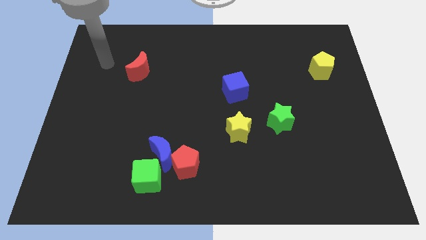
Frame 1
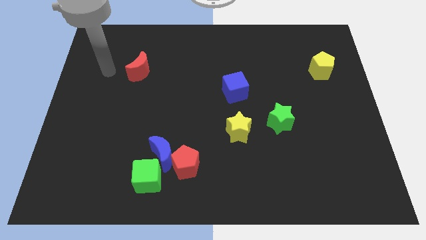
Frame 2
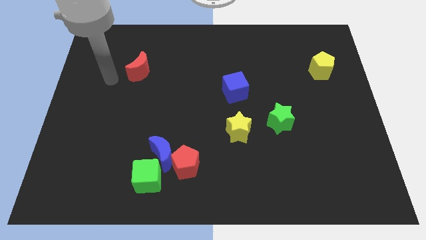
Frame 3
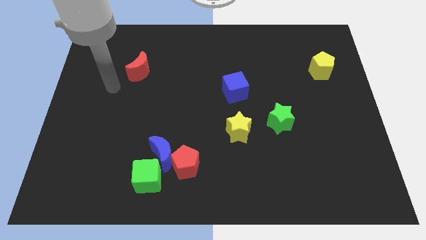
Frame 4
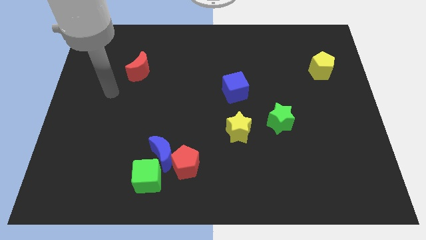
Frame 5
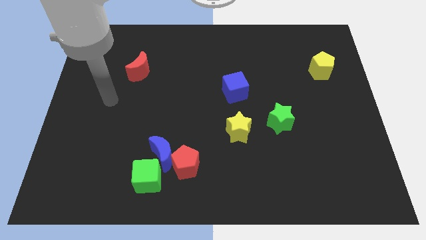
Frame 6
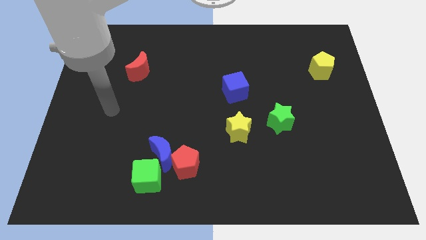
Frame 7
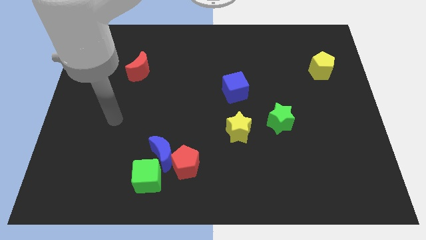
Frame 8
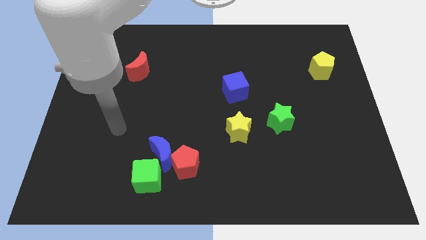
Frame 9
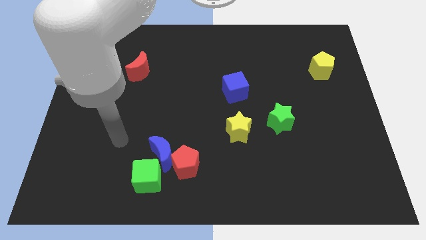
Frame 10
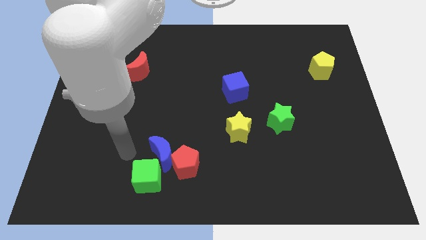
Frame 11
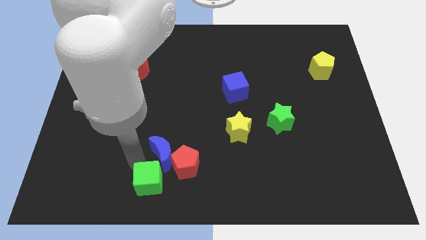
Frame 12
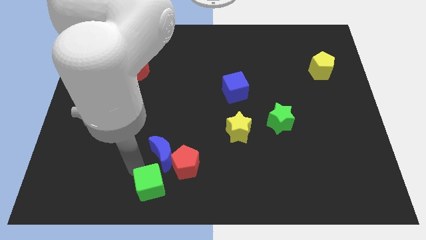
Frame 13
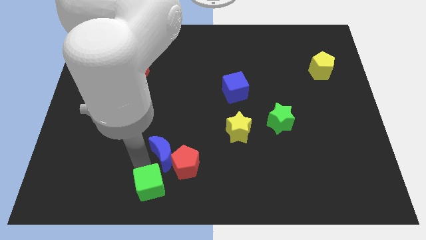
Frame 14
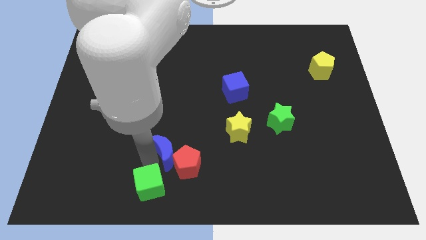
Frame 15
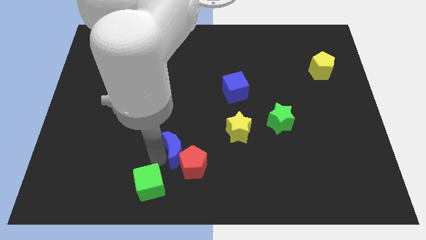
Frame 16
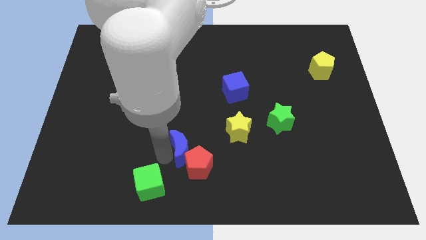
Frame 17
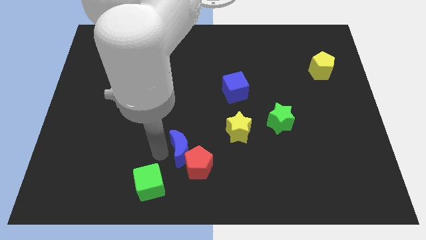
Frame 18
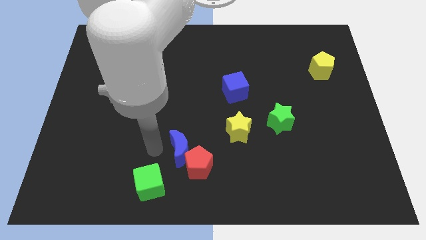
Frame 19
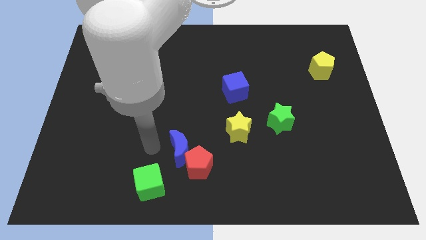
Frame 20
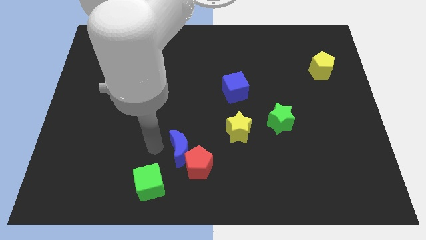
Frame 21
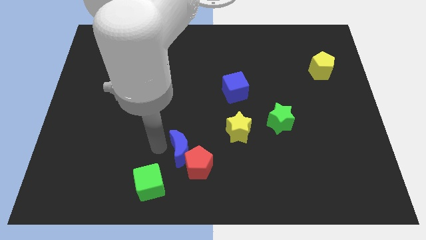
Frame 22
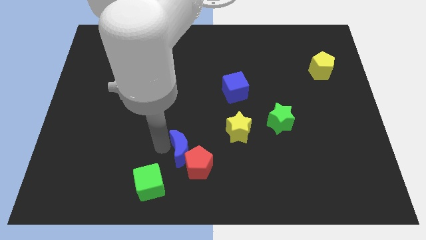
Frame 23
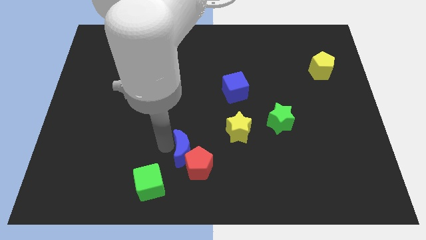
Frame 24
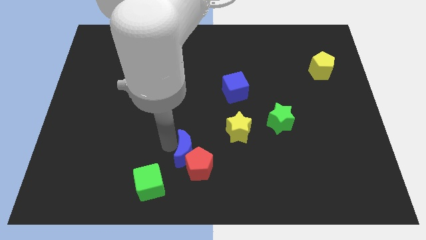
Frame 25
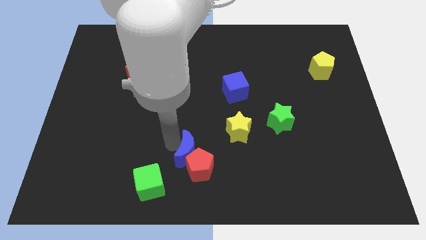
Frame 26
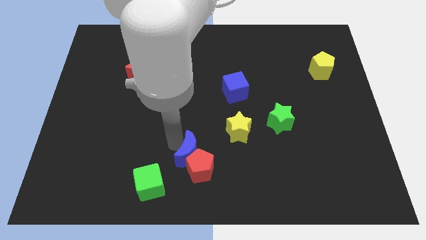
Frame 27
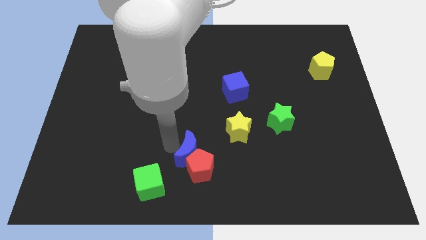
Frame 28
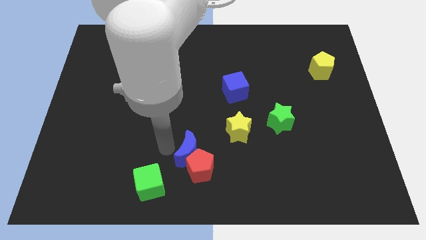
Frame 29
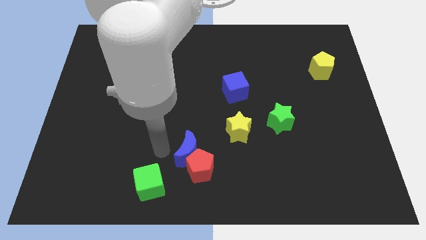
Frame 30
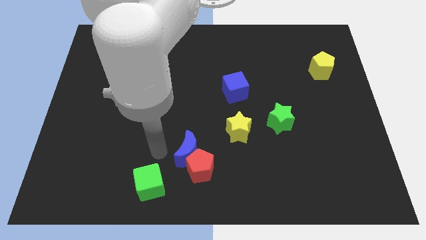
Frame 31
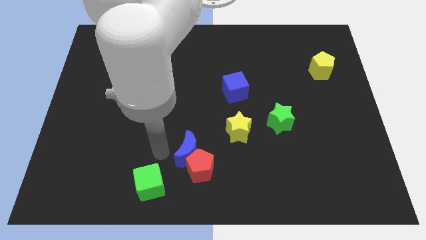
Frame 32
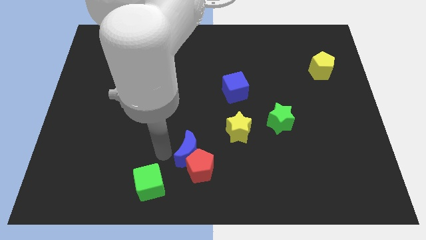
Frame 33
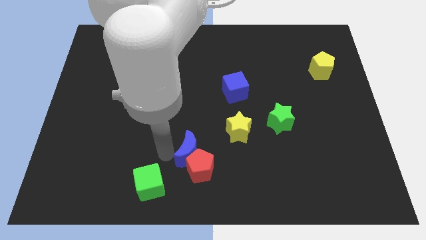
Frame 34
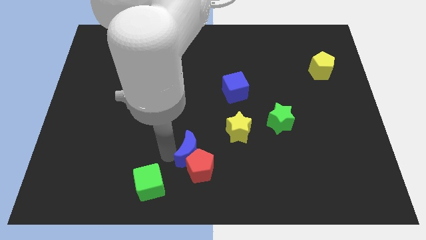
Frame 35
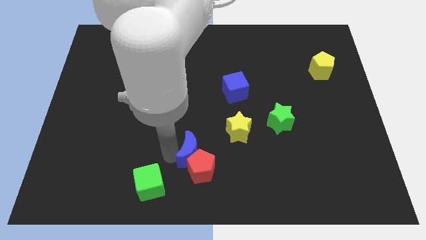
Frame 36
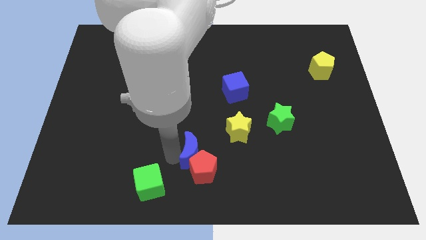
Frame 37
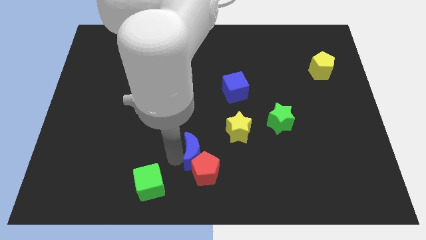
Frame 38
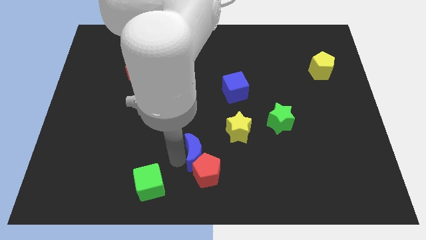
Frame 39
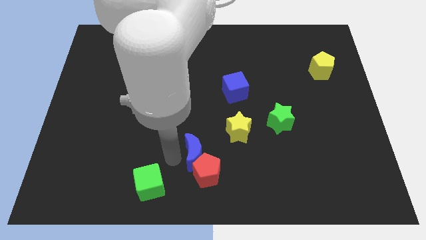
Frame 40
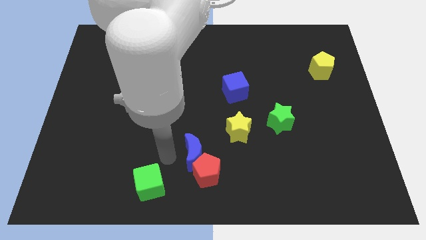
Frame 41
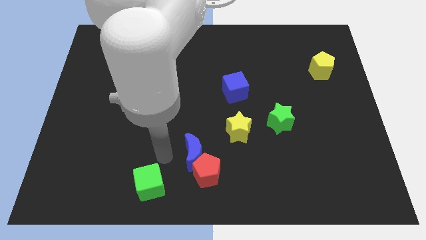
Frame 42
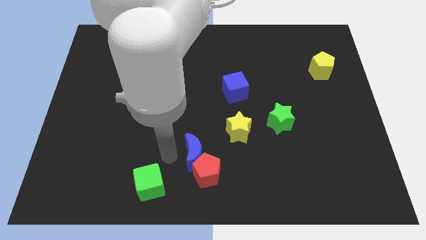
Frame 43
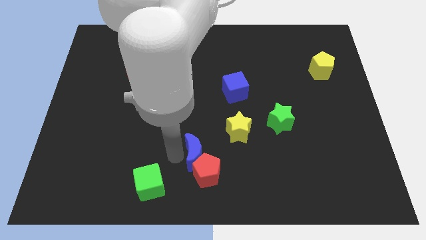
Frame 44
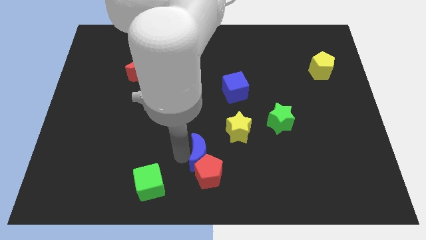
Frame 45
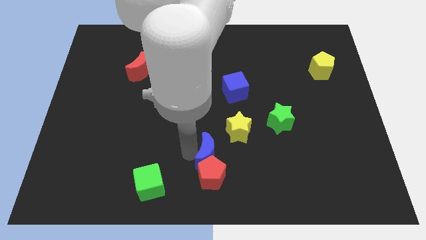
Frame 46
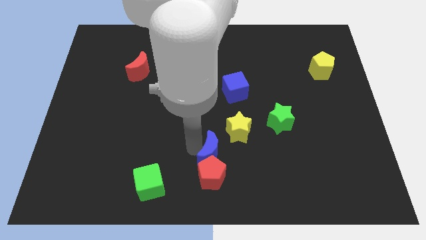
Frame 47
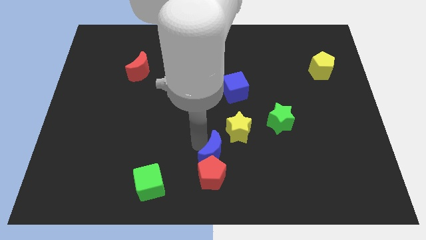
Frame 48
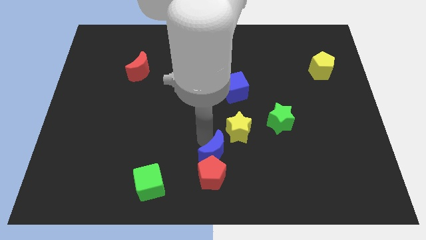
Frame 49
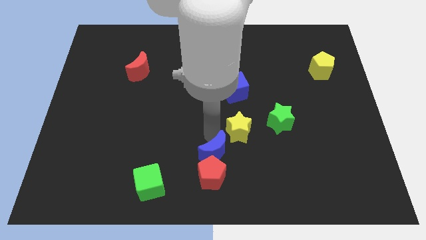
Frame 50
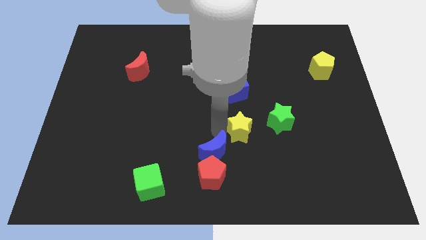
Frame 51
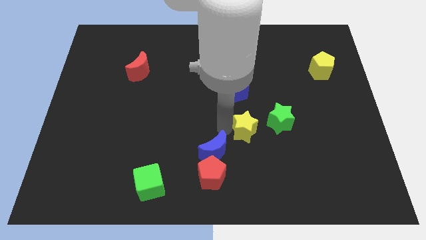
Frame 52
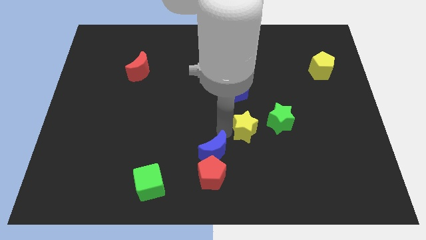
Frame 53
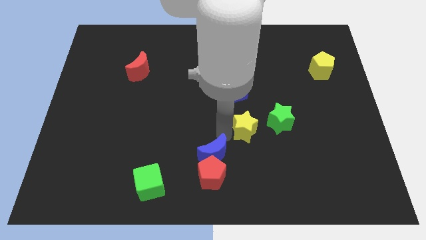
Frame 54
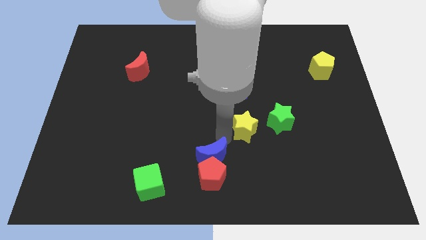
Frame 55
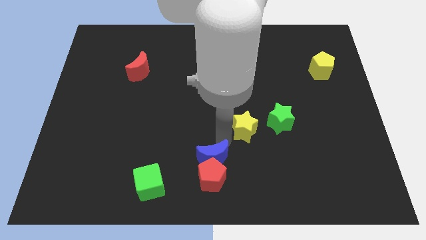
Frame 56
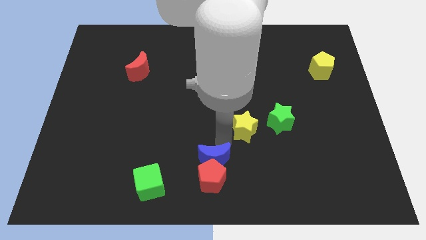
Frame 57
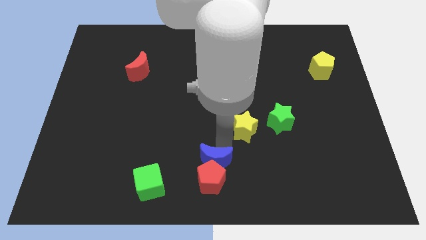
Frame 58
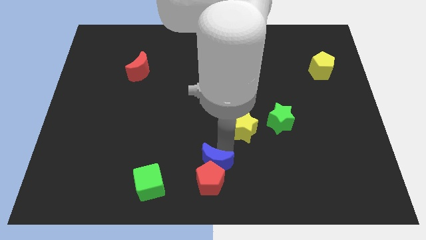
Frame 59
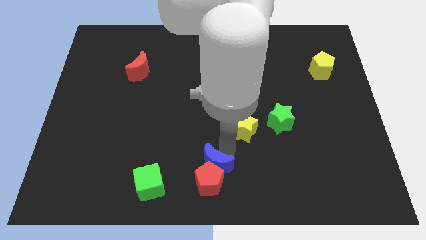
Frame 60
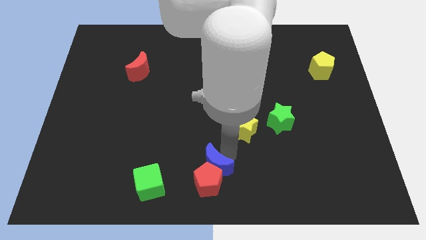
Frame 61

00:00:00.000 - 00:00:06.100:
slide the blue moon to the right of the green cube

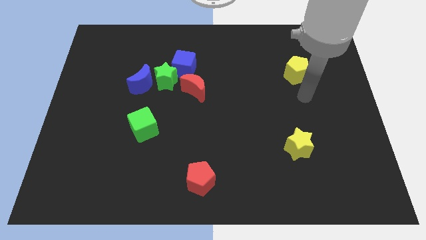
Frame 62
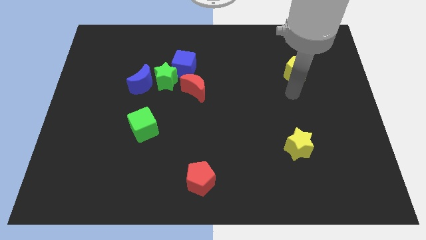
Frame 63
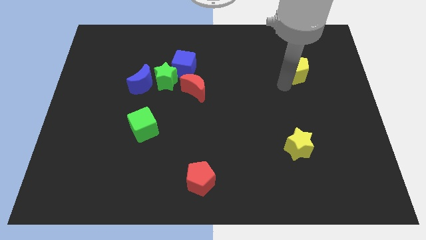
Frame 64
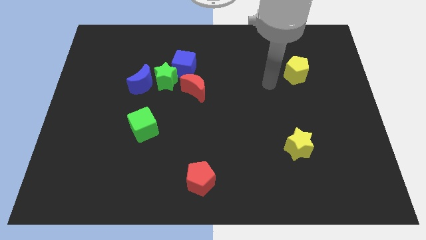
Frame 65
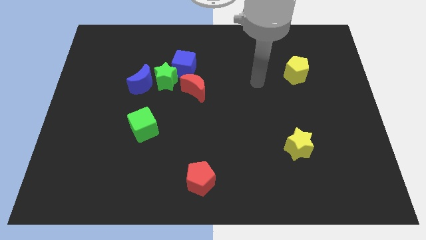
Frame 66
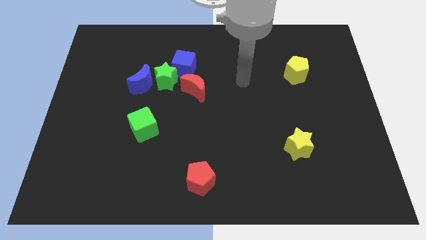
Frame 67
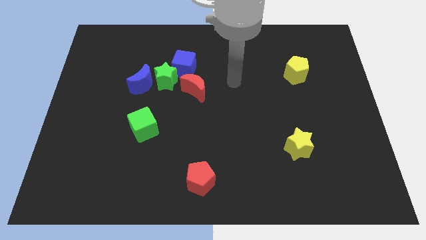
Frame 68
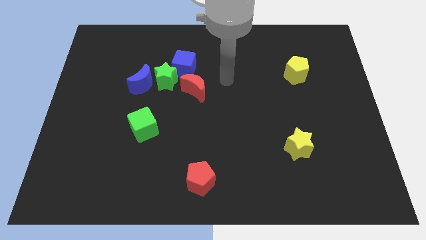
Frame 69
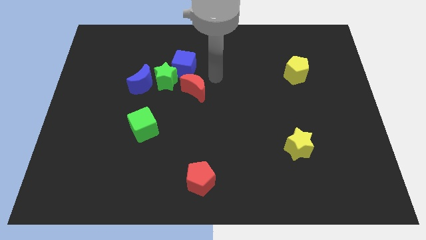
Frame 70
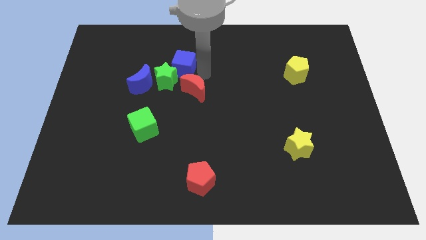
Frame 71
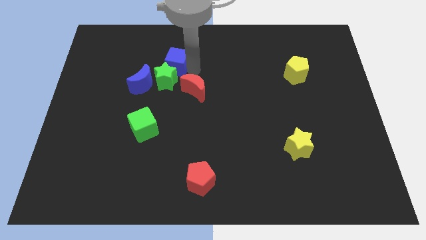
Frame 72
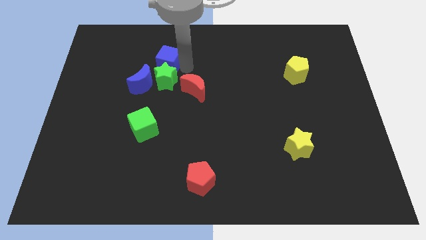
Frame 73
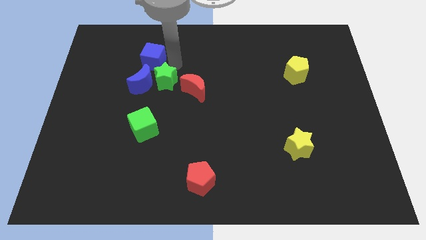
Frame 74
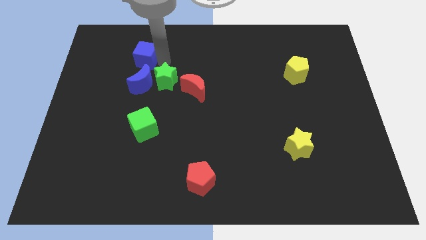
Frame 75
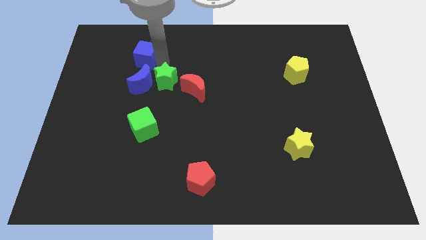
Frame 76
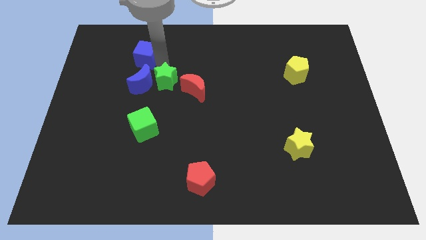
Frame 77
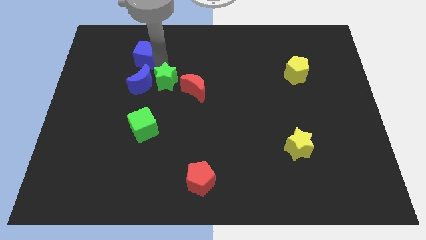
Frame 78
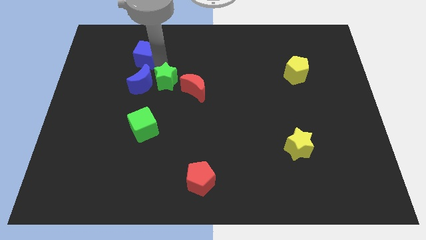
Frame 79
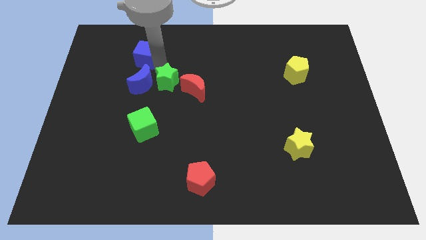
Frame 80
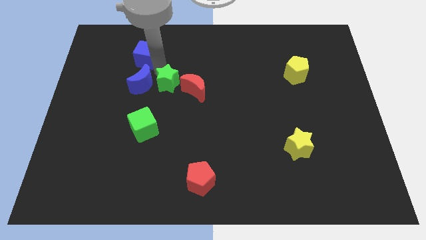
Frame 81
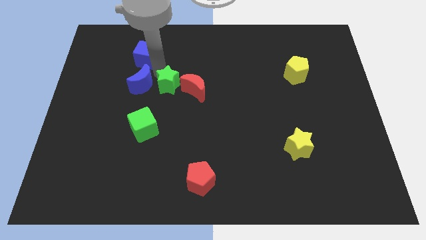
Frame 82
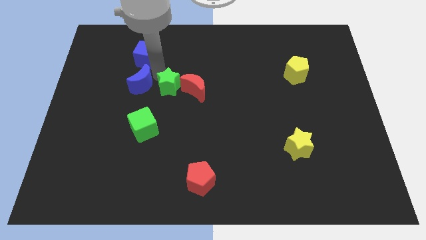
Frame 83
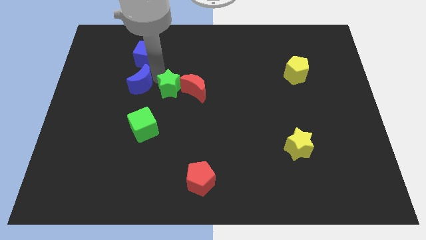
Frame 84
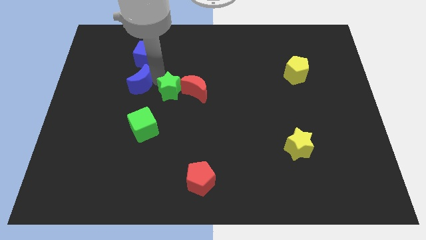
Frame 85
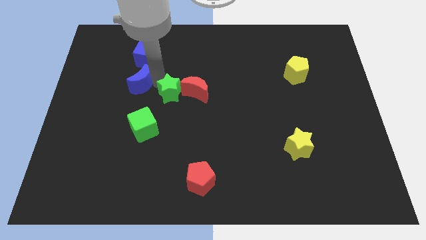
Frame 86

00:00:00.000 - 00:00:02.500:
move the green star to the top right side of the green cube
